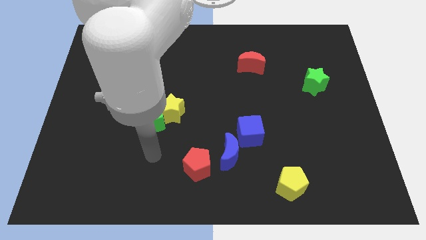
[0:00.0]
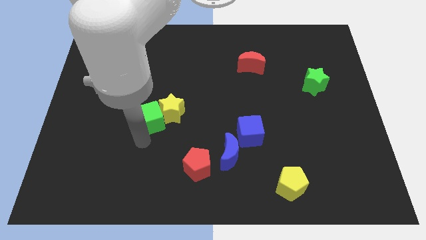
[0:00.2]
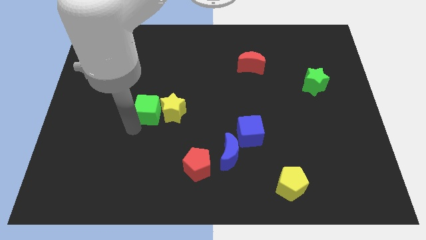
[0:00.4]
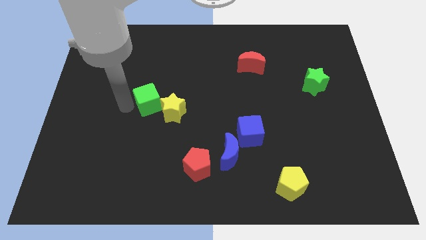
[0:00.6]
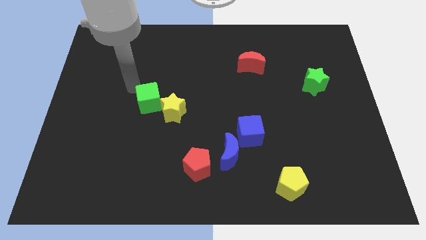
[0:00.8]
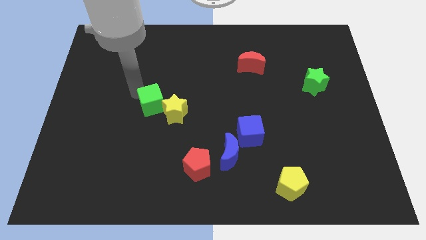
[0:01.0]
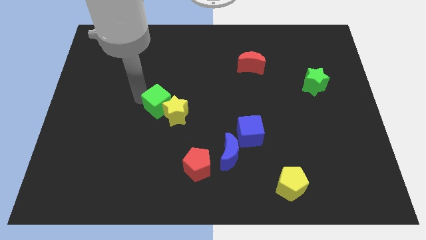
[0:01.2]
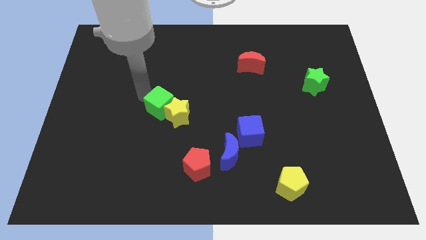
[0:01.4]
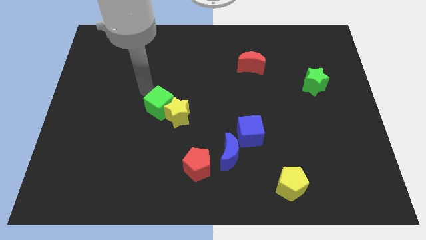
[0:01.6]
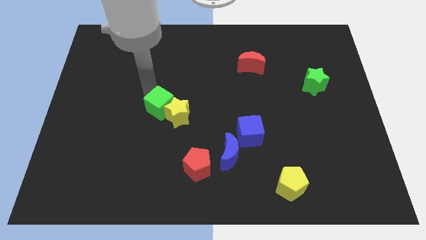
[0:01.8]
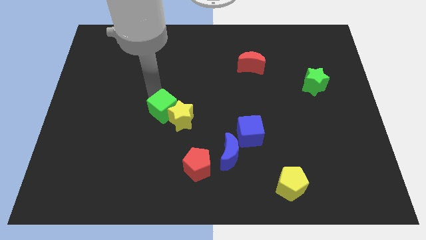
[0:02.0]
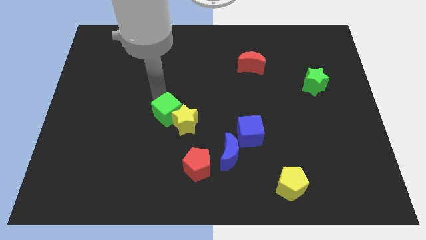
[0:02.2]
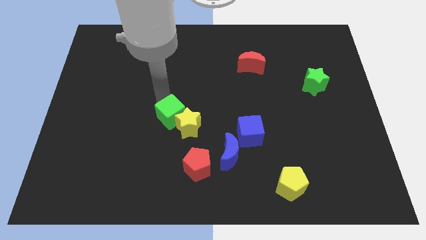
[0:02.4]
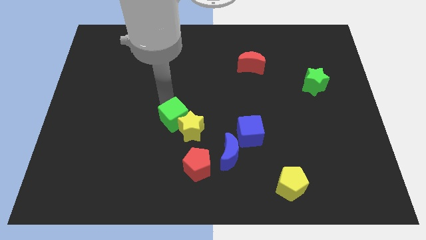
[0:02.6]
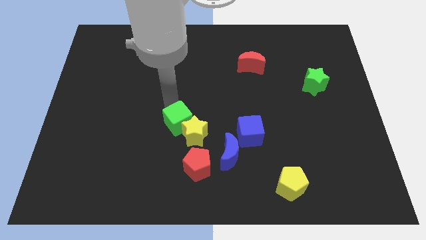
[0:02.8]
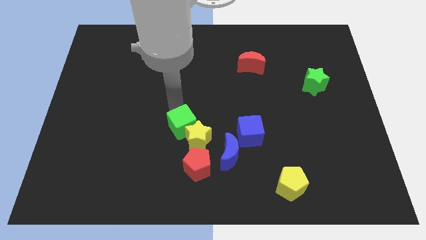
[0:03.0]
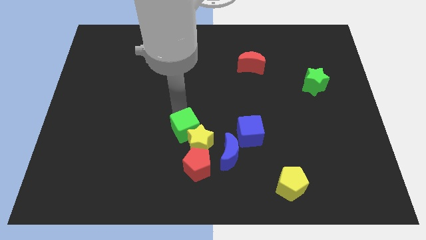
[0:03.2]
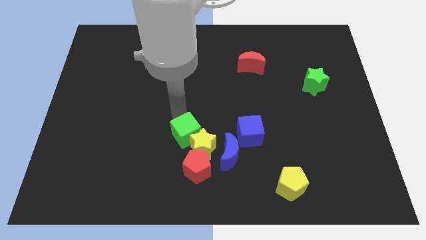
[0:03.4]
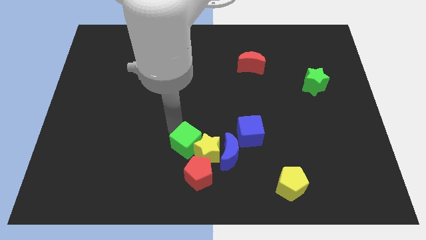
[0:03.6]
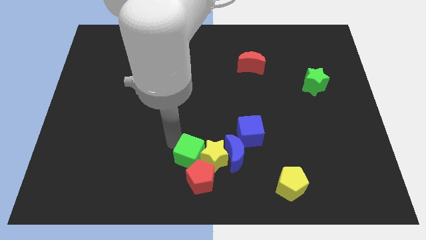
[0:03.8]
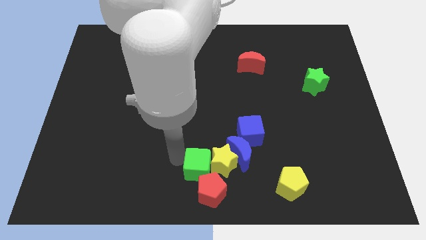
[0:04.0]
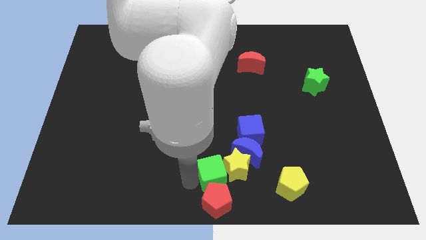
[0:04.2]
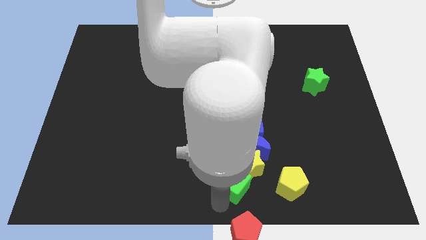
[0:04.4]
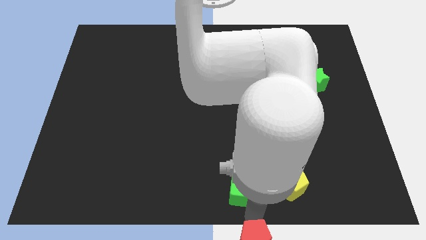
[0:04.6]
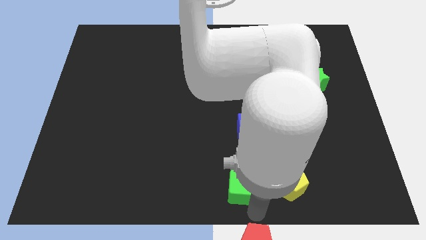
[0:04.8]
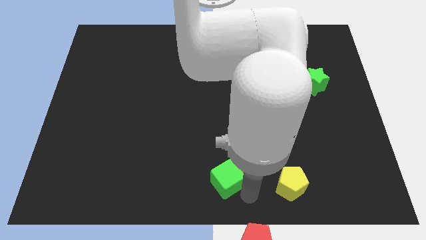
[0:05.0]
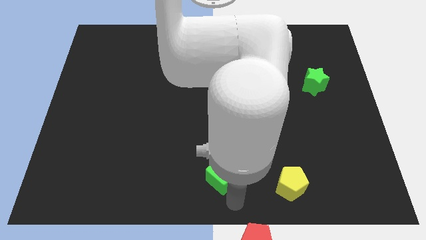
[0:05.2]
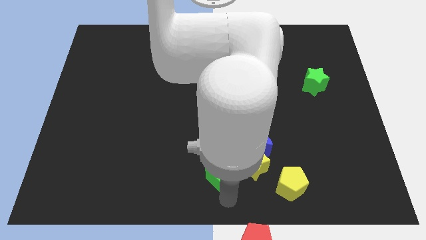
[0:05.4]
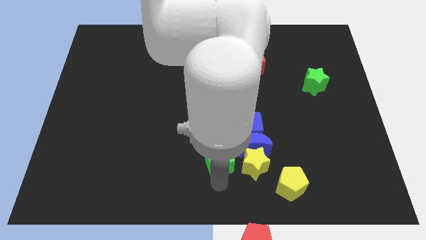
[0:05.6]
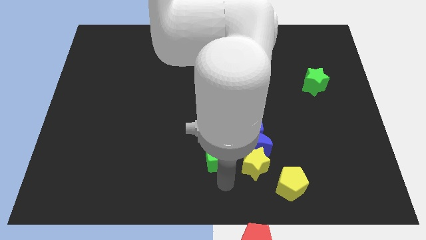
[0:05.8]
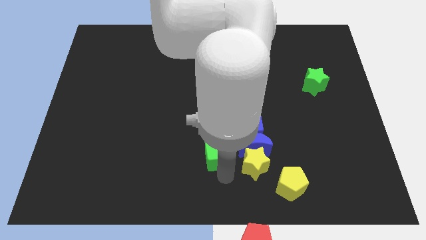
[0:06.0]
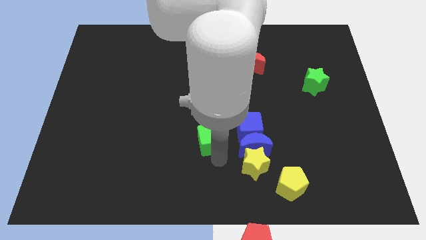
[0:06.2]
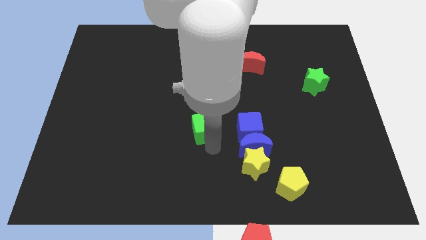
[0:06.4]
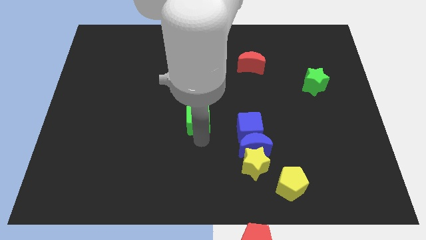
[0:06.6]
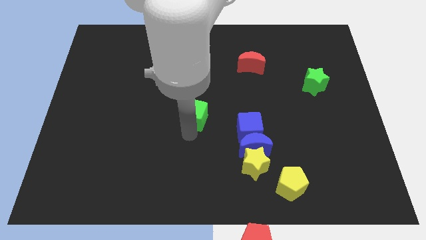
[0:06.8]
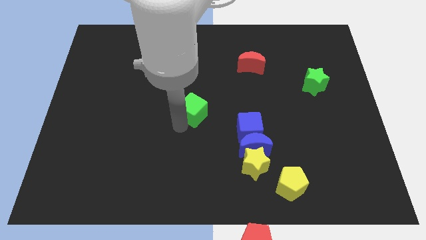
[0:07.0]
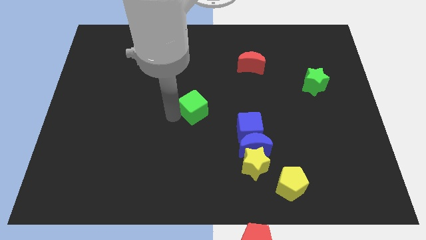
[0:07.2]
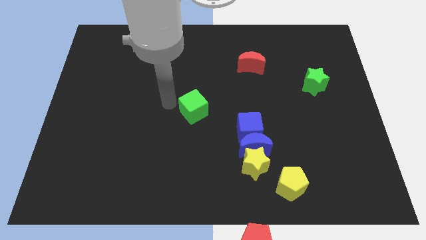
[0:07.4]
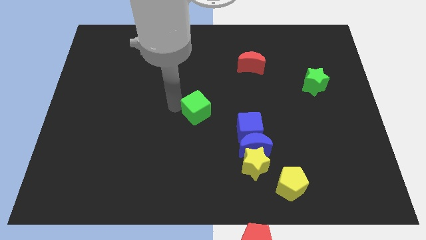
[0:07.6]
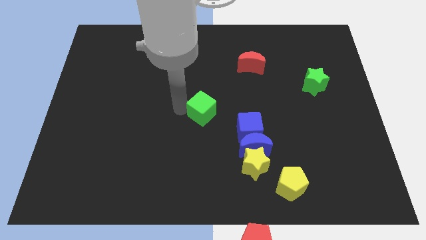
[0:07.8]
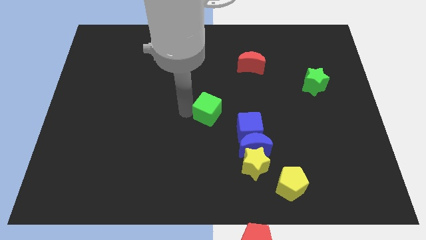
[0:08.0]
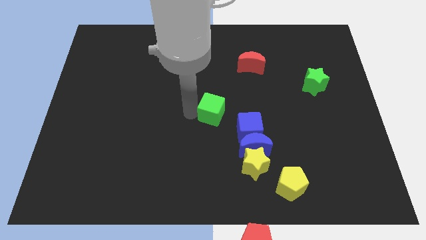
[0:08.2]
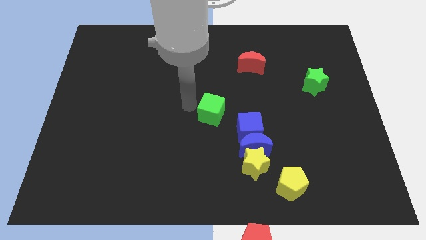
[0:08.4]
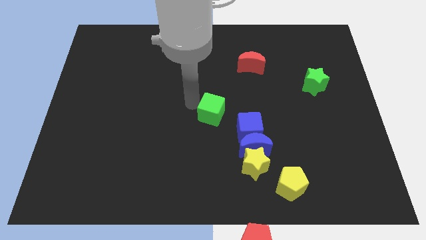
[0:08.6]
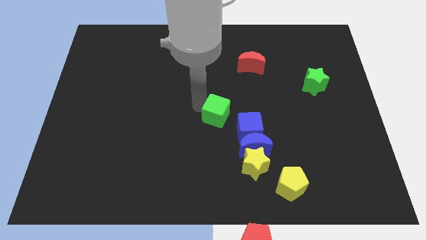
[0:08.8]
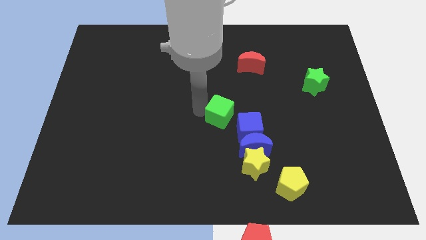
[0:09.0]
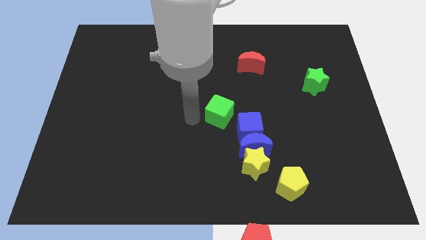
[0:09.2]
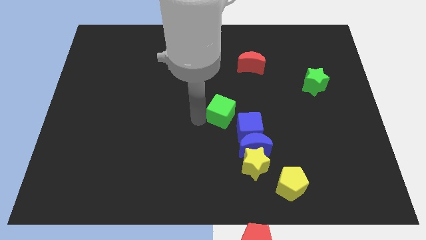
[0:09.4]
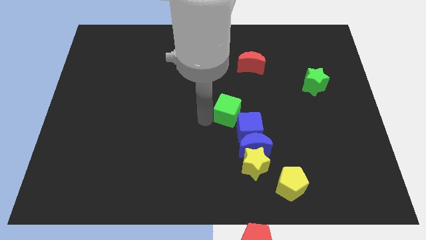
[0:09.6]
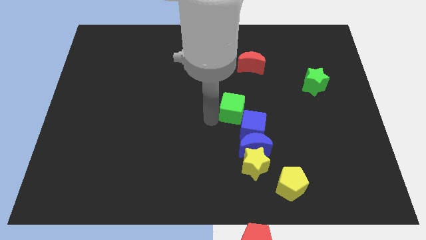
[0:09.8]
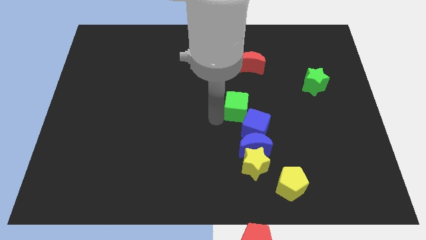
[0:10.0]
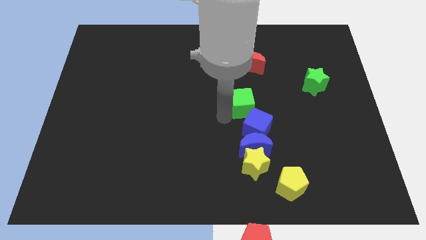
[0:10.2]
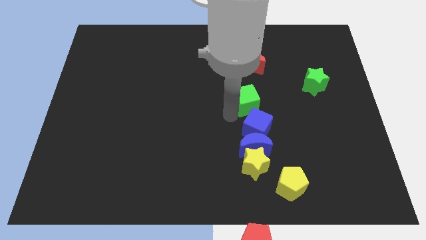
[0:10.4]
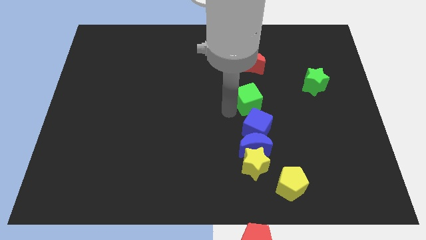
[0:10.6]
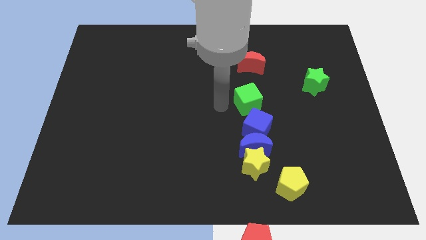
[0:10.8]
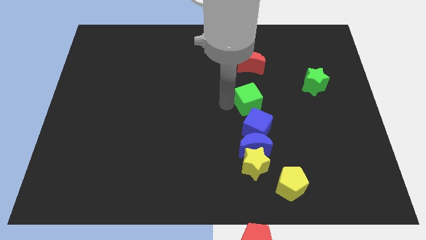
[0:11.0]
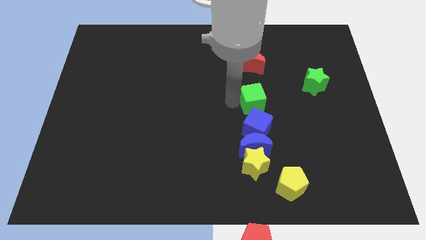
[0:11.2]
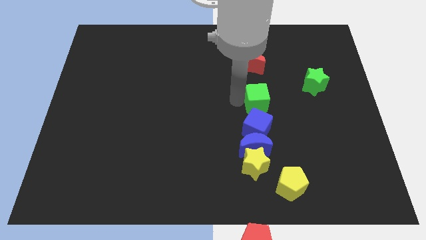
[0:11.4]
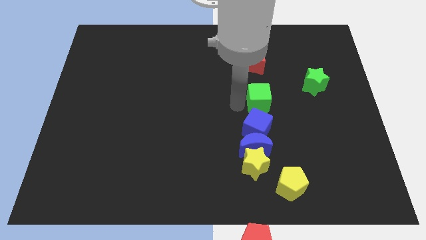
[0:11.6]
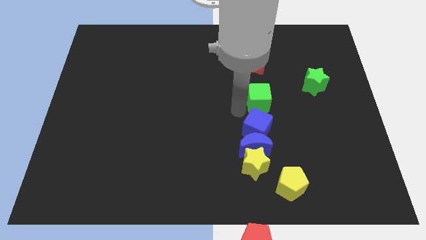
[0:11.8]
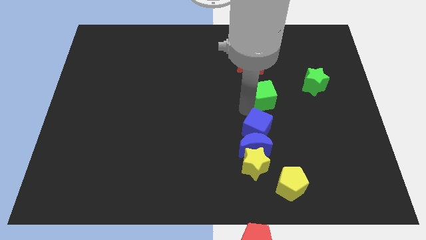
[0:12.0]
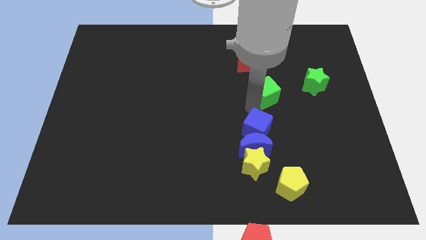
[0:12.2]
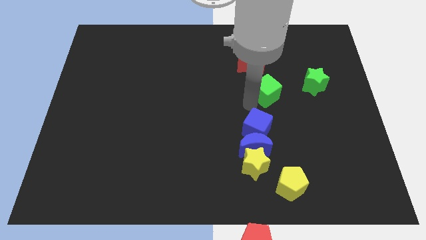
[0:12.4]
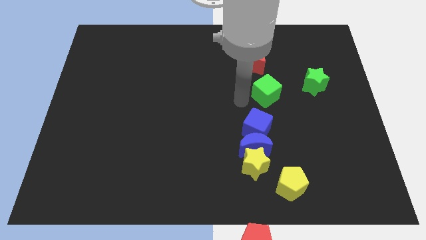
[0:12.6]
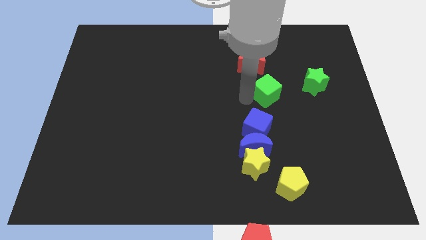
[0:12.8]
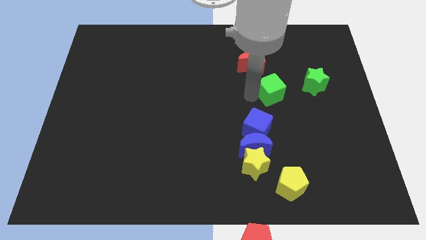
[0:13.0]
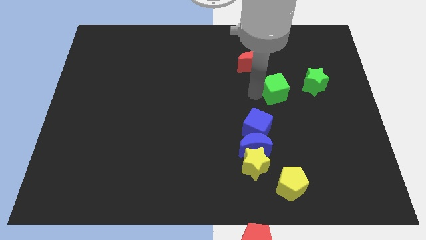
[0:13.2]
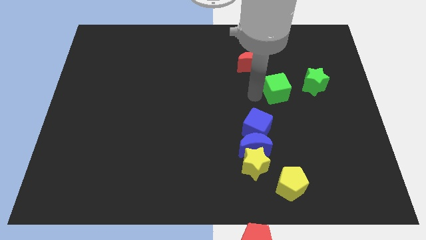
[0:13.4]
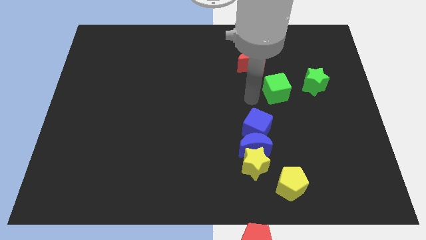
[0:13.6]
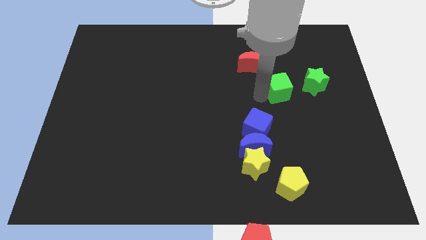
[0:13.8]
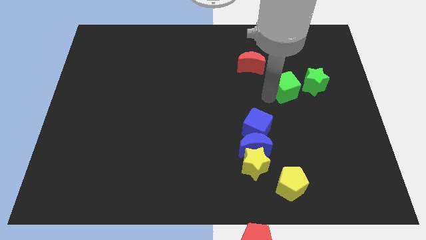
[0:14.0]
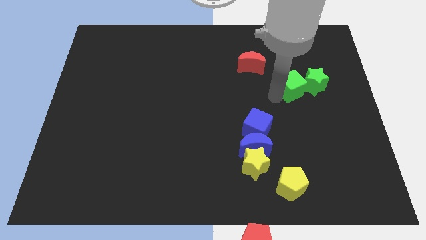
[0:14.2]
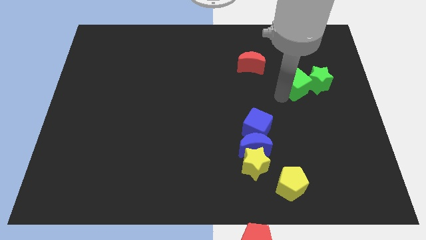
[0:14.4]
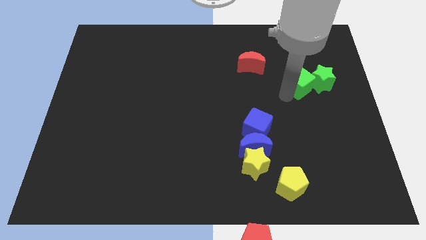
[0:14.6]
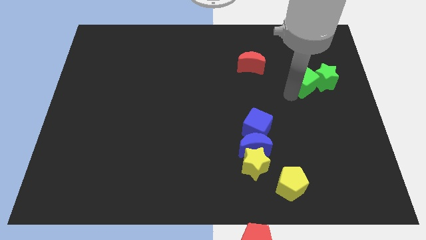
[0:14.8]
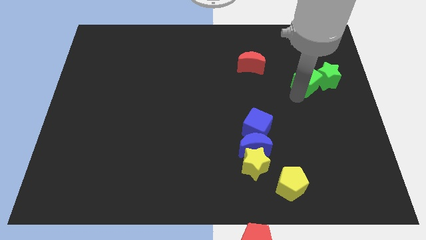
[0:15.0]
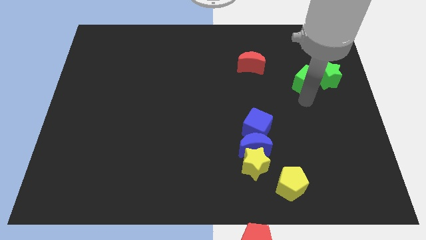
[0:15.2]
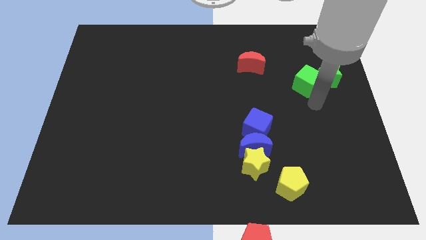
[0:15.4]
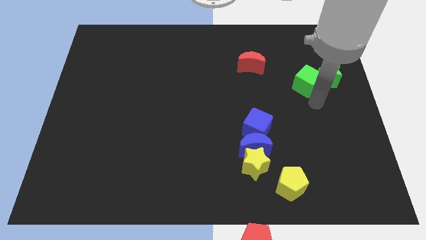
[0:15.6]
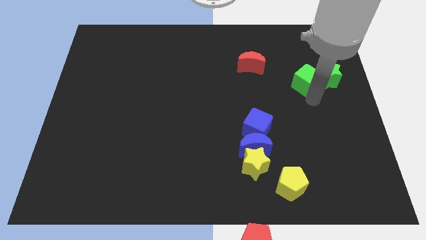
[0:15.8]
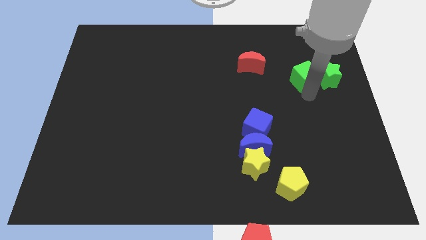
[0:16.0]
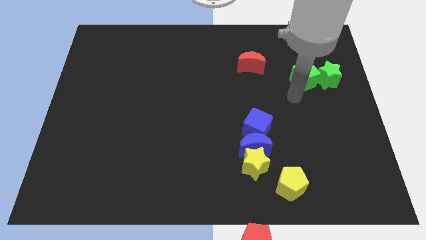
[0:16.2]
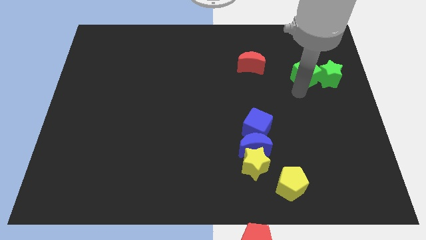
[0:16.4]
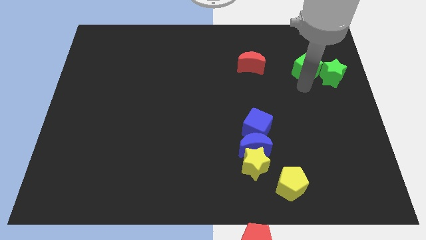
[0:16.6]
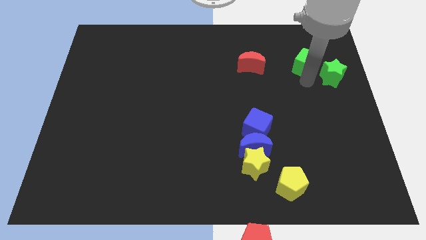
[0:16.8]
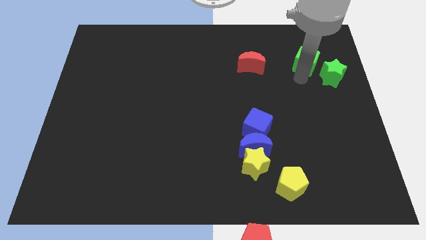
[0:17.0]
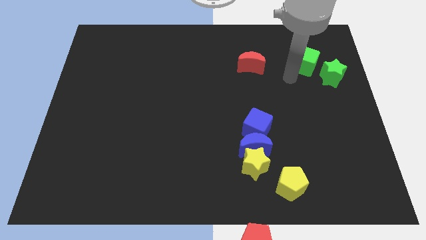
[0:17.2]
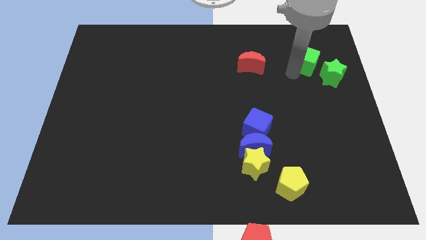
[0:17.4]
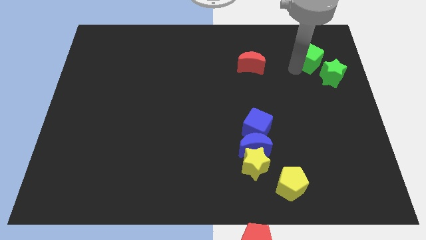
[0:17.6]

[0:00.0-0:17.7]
put the green cube to the top of the green star
